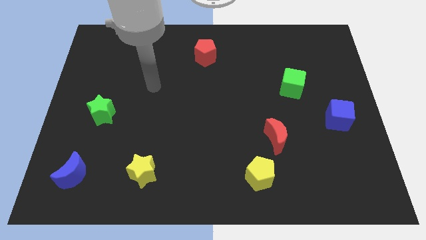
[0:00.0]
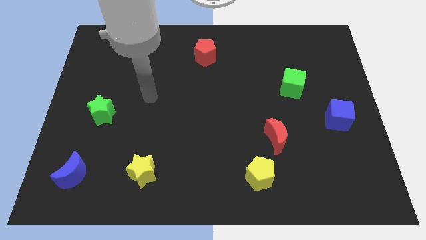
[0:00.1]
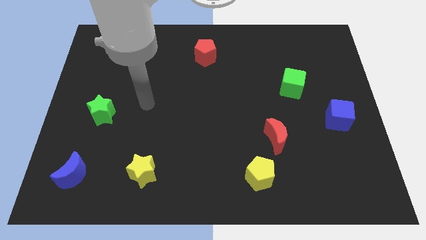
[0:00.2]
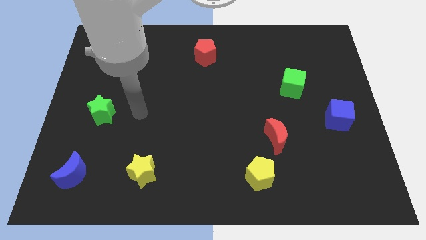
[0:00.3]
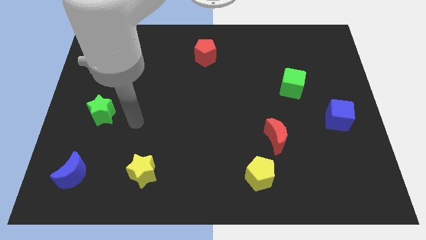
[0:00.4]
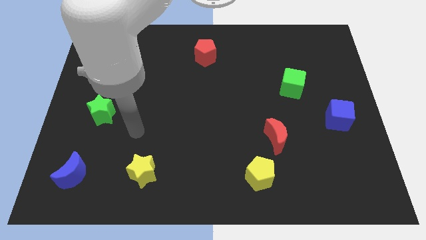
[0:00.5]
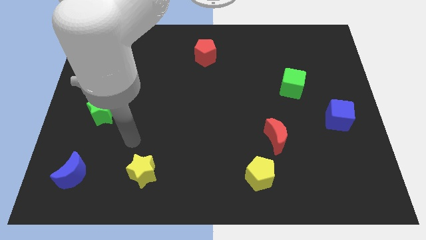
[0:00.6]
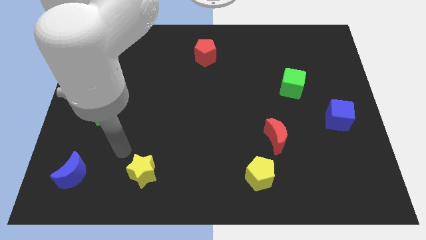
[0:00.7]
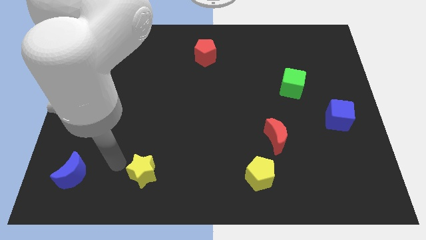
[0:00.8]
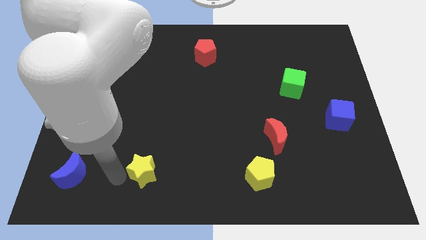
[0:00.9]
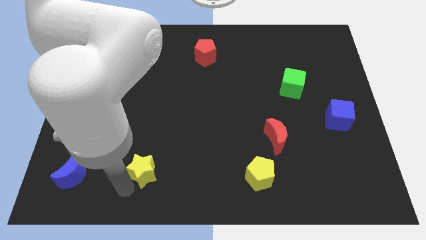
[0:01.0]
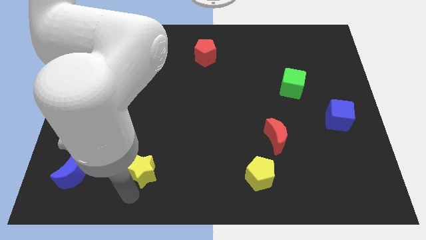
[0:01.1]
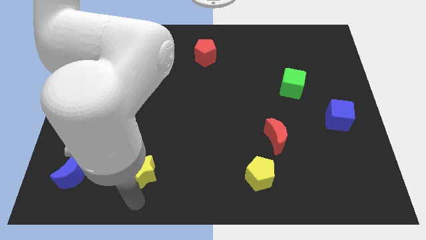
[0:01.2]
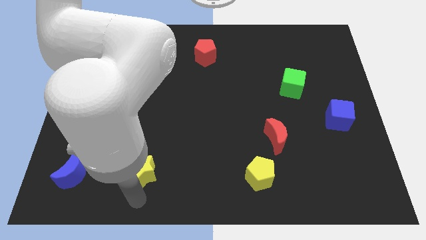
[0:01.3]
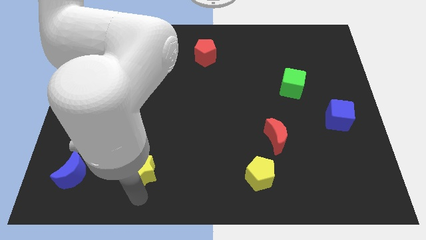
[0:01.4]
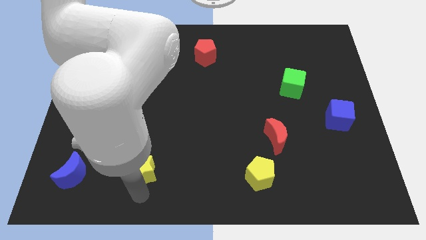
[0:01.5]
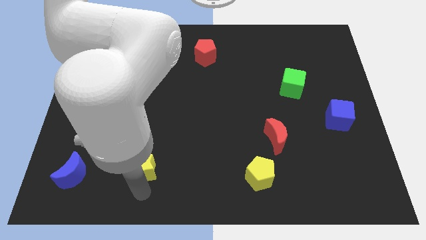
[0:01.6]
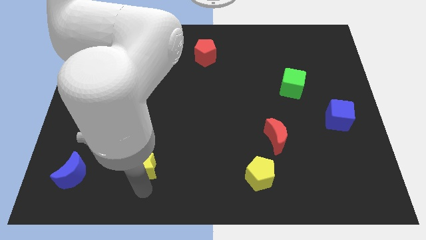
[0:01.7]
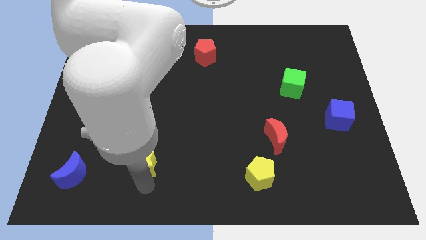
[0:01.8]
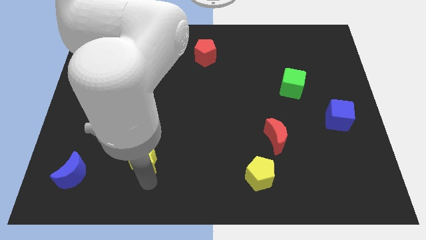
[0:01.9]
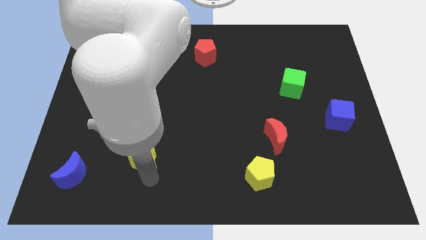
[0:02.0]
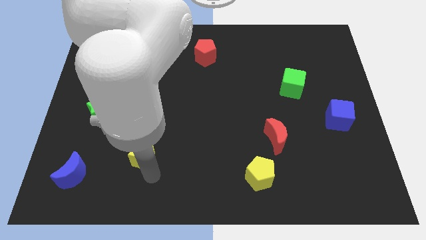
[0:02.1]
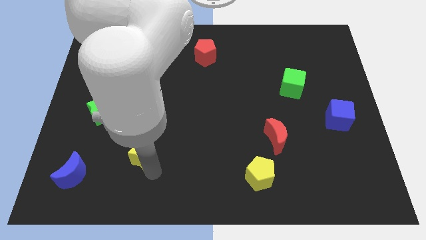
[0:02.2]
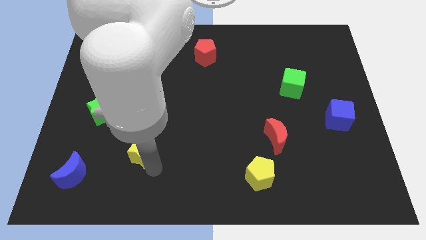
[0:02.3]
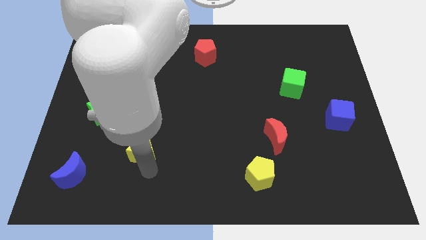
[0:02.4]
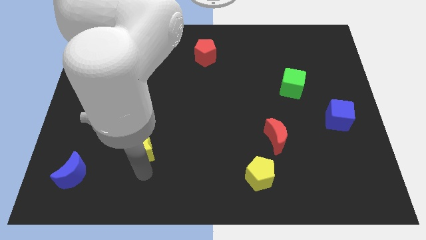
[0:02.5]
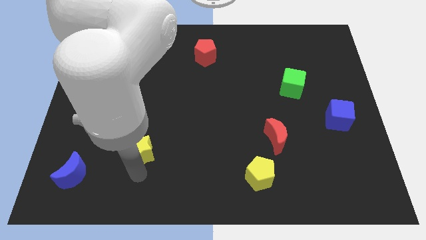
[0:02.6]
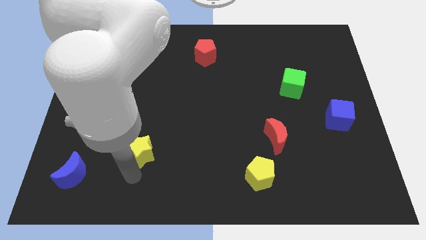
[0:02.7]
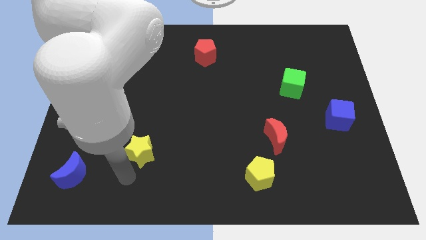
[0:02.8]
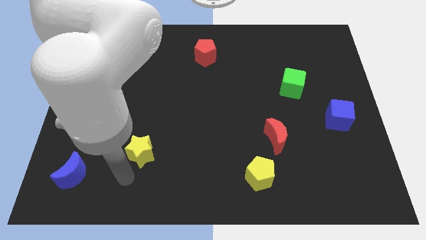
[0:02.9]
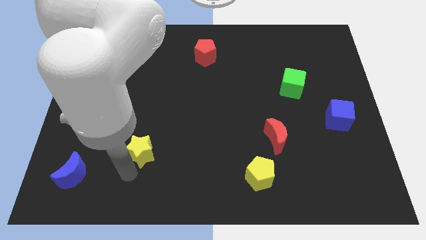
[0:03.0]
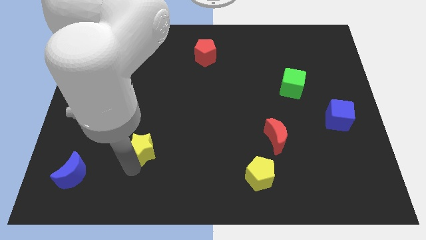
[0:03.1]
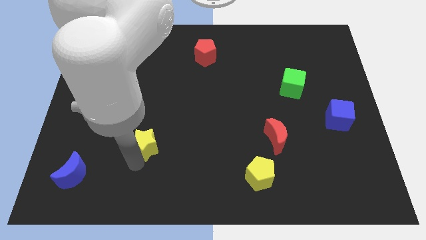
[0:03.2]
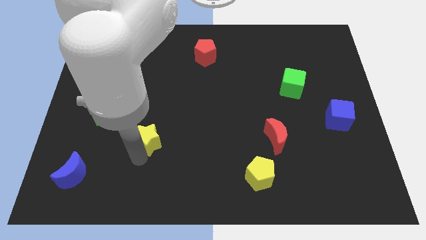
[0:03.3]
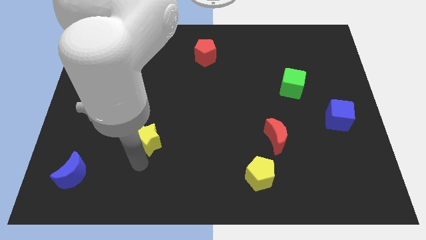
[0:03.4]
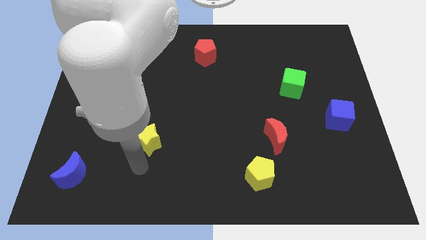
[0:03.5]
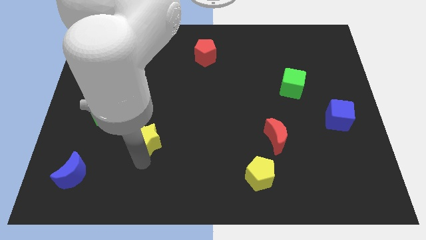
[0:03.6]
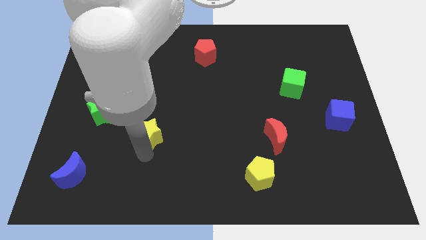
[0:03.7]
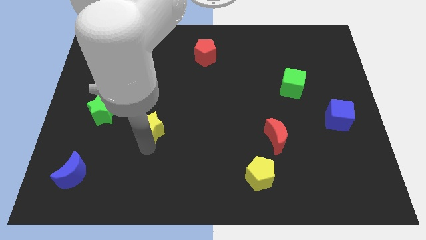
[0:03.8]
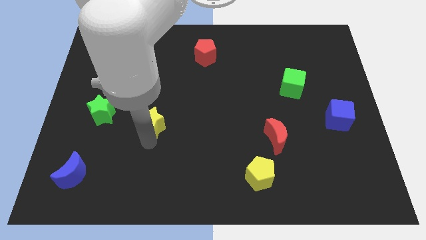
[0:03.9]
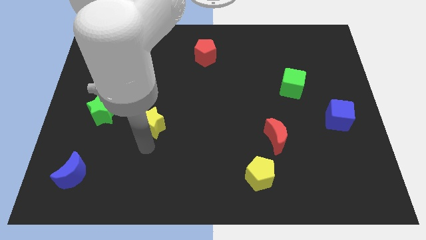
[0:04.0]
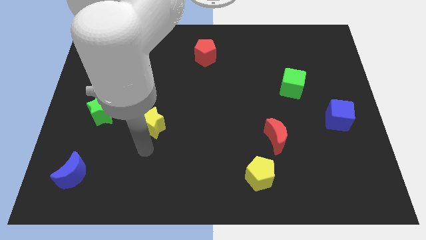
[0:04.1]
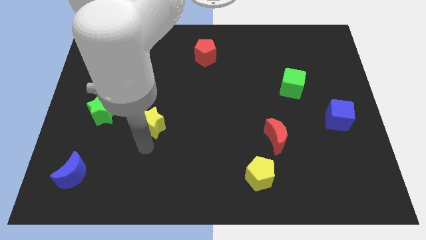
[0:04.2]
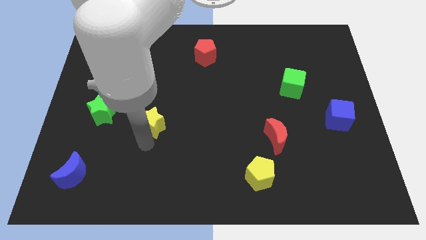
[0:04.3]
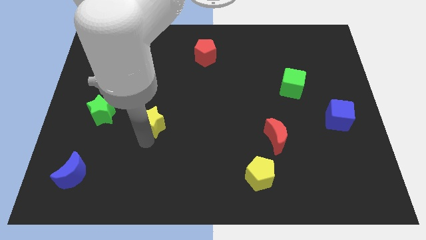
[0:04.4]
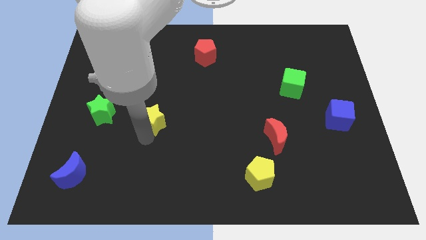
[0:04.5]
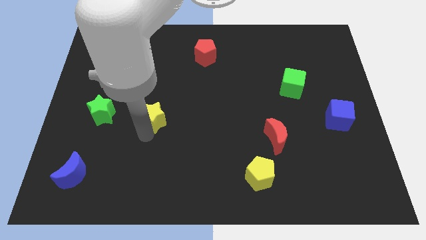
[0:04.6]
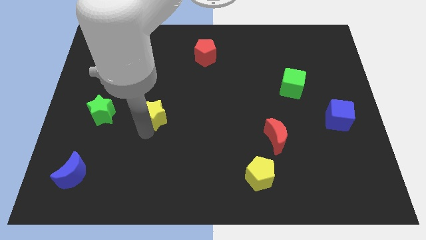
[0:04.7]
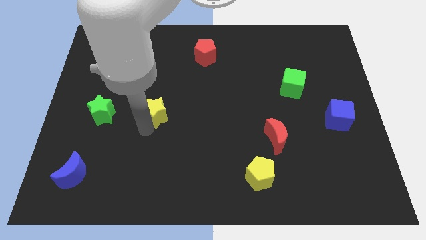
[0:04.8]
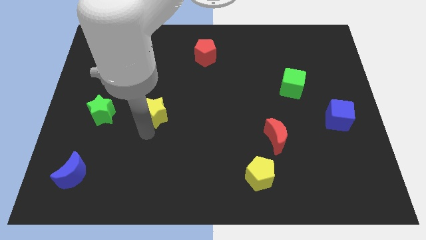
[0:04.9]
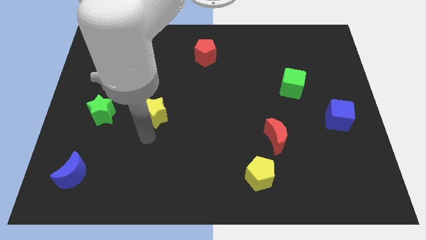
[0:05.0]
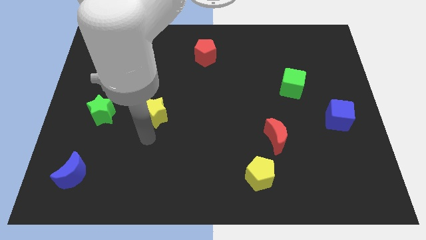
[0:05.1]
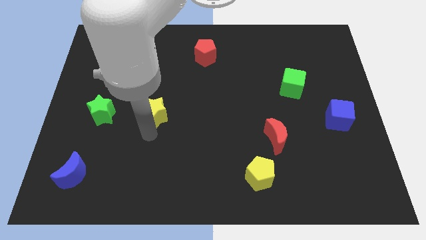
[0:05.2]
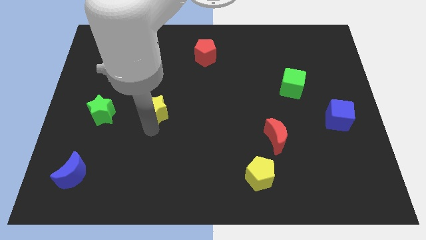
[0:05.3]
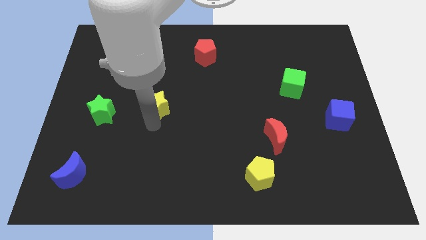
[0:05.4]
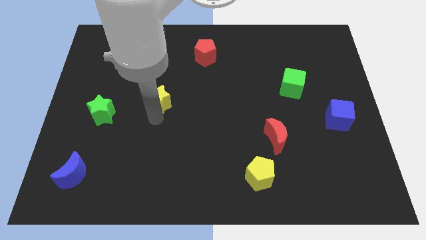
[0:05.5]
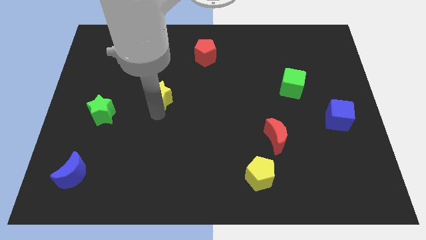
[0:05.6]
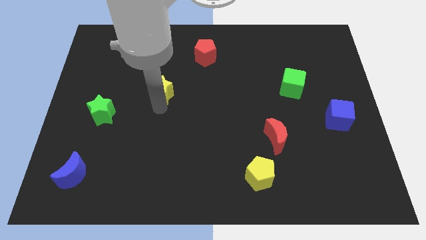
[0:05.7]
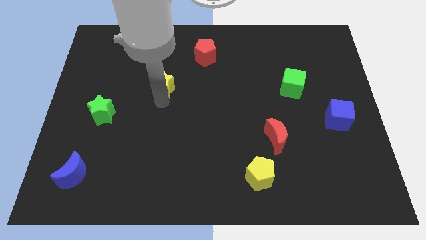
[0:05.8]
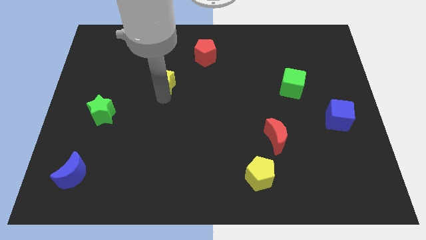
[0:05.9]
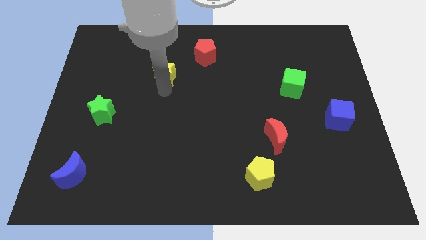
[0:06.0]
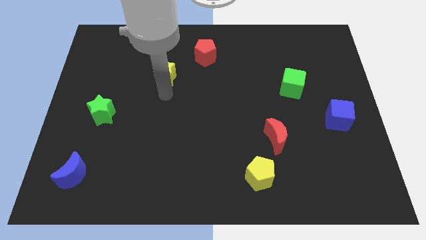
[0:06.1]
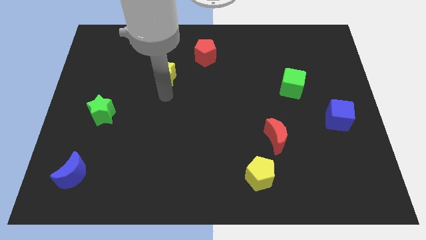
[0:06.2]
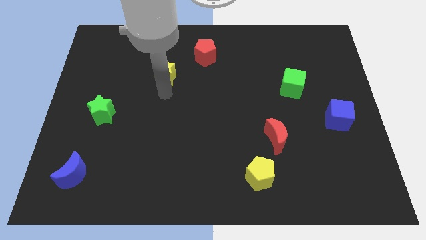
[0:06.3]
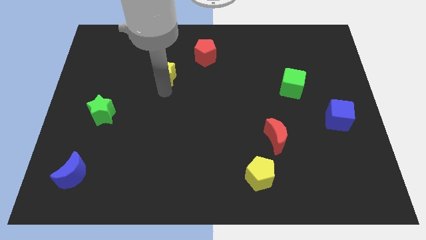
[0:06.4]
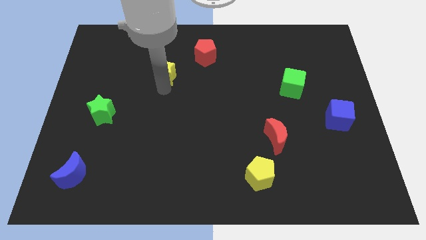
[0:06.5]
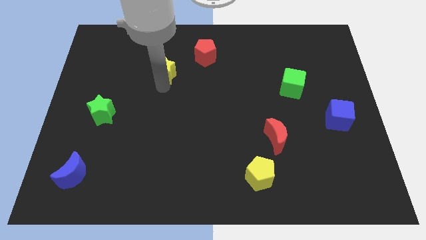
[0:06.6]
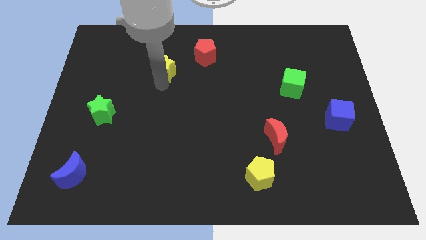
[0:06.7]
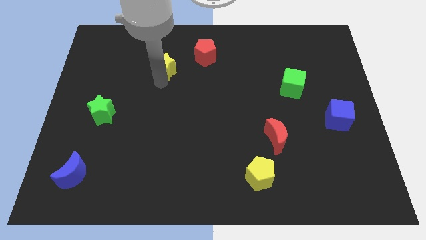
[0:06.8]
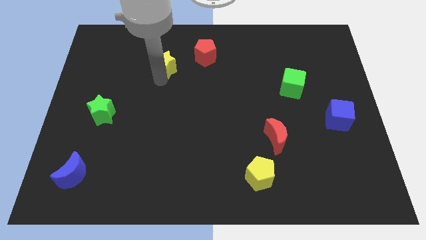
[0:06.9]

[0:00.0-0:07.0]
put the yellow star left of the red pentagon
